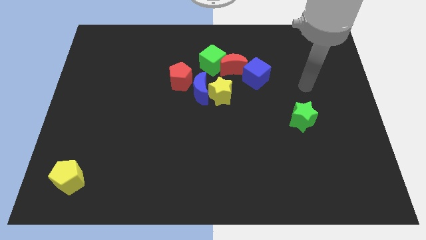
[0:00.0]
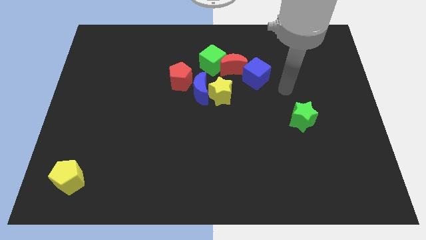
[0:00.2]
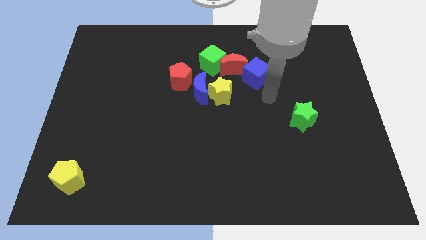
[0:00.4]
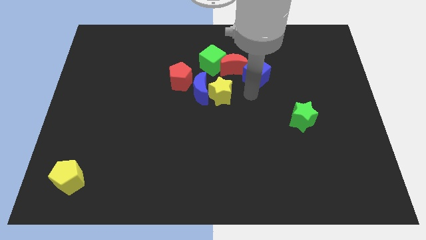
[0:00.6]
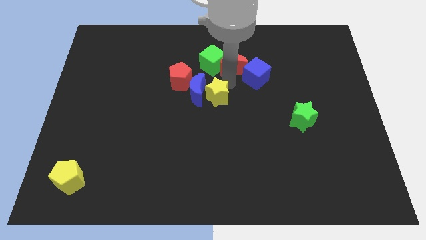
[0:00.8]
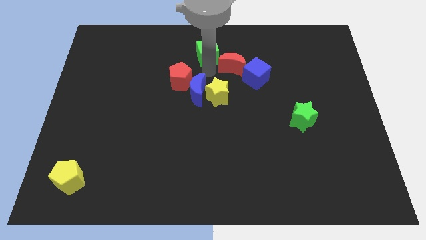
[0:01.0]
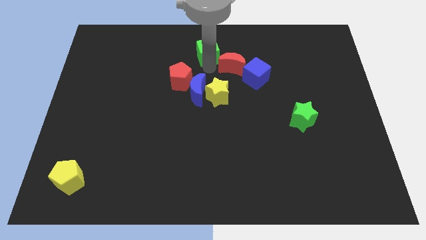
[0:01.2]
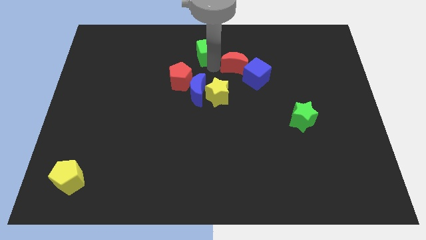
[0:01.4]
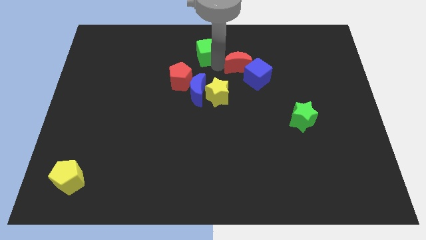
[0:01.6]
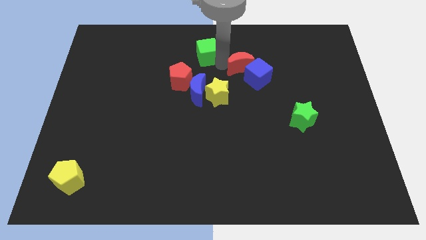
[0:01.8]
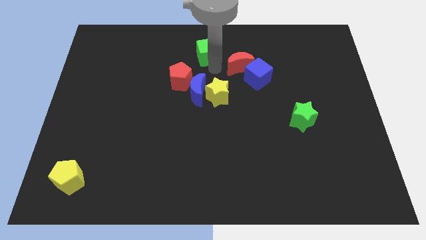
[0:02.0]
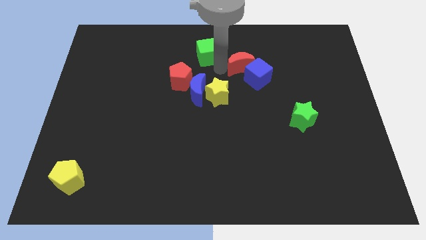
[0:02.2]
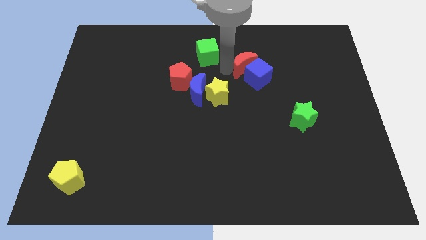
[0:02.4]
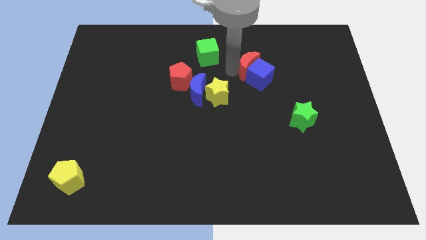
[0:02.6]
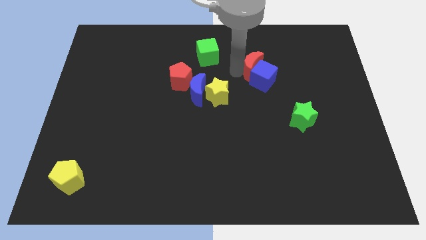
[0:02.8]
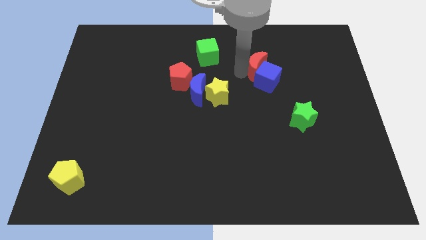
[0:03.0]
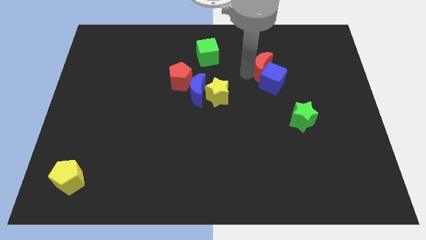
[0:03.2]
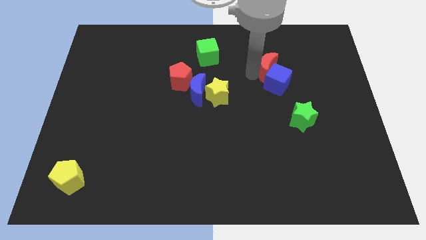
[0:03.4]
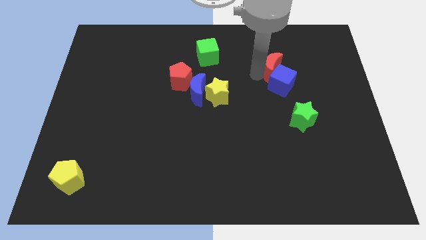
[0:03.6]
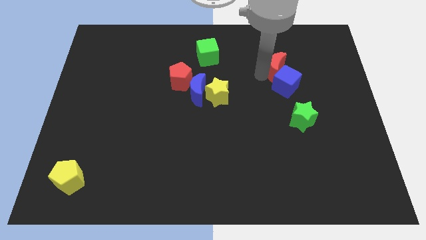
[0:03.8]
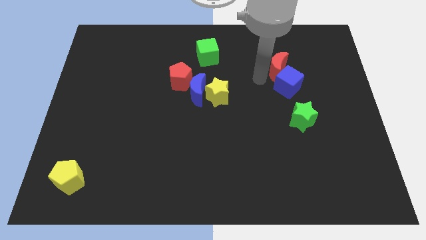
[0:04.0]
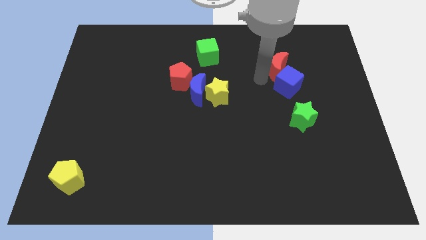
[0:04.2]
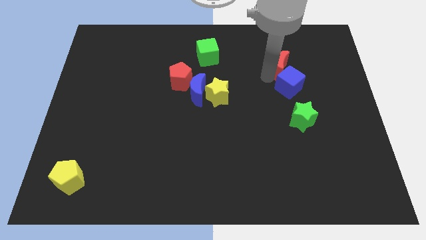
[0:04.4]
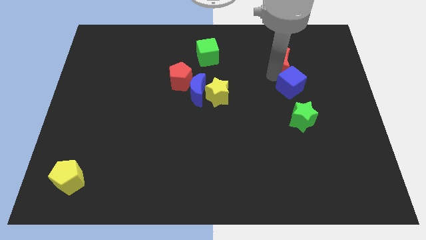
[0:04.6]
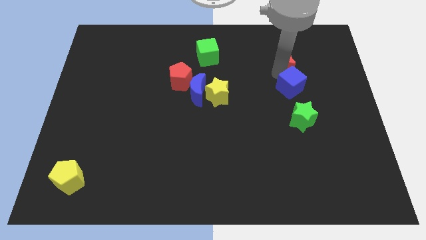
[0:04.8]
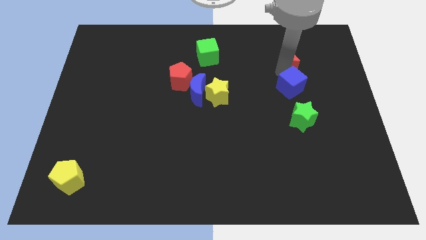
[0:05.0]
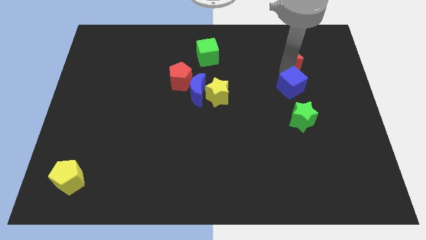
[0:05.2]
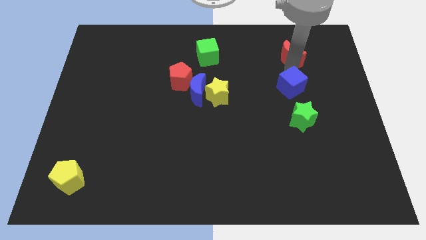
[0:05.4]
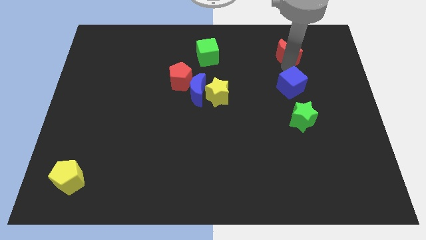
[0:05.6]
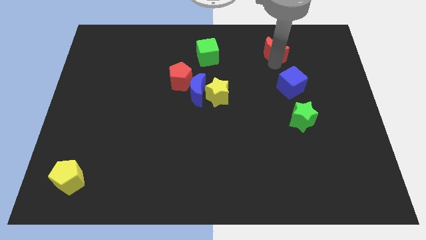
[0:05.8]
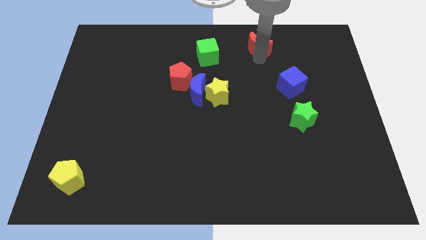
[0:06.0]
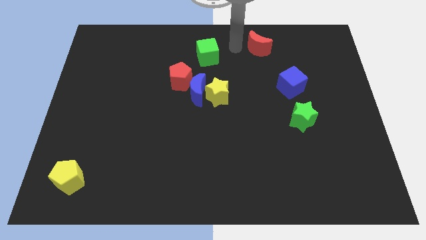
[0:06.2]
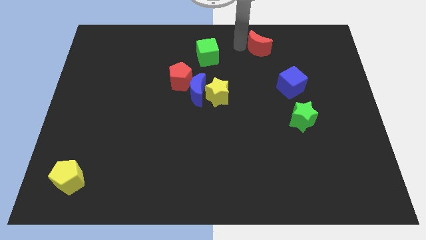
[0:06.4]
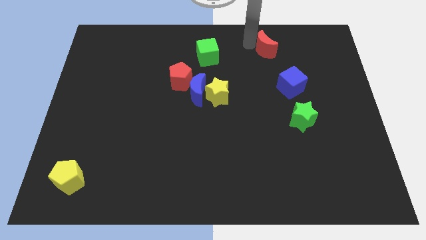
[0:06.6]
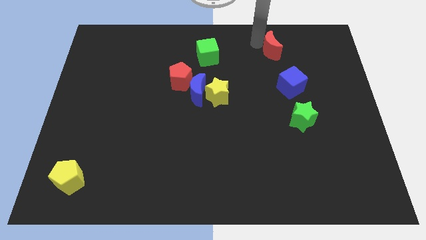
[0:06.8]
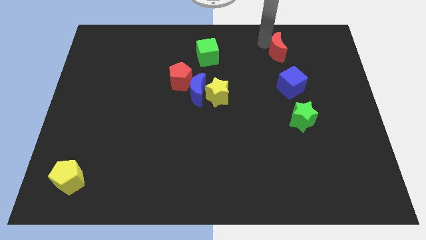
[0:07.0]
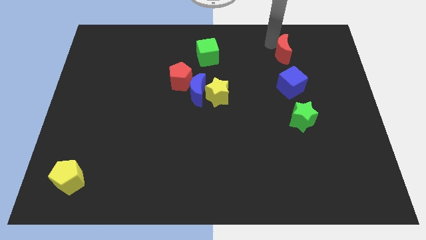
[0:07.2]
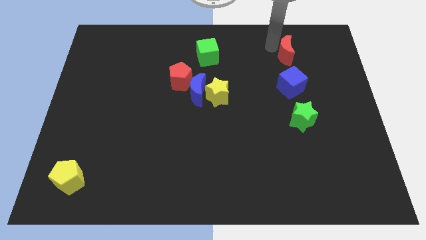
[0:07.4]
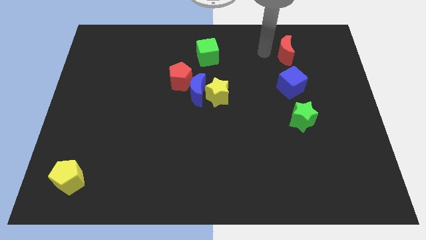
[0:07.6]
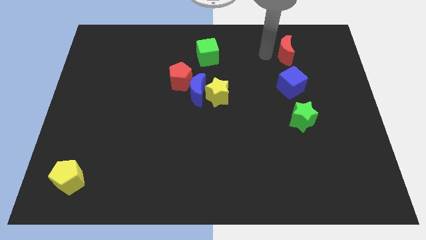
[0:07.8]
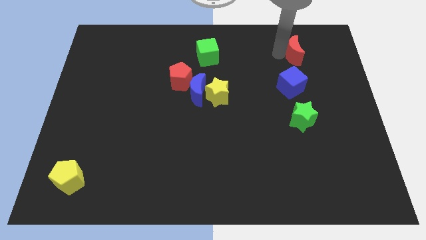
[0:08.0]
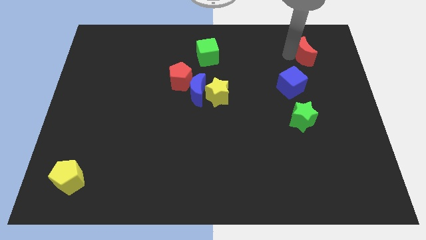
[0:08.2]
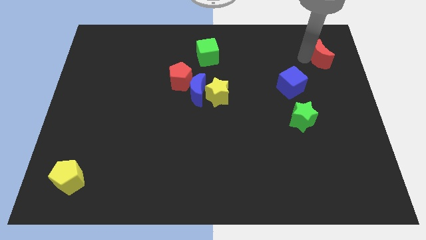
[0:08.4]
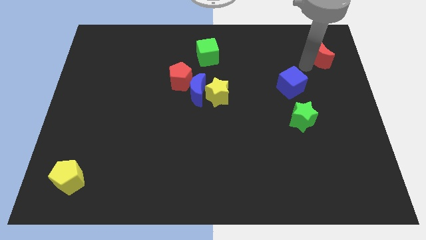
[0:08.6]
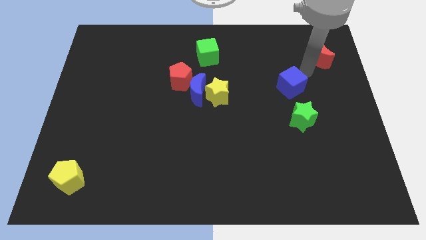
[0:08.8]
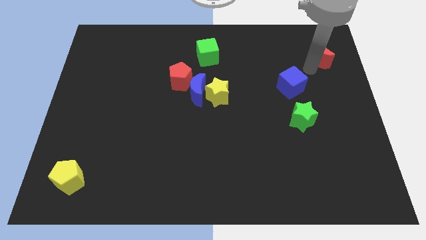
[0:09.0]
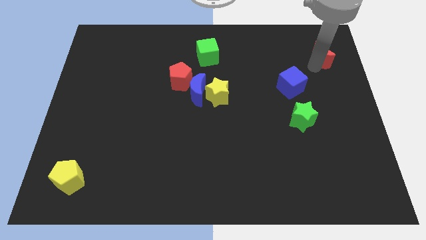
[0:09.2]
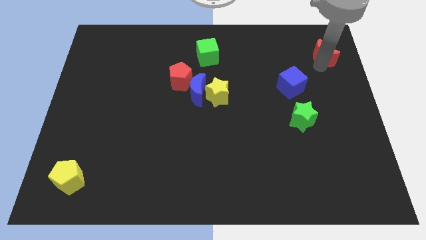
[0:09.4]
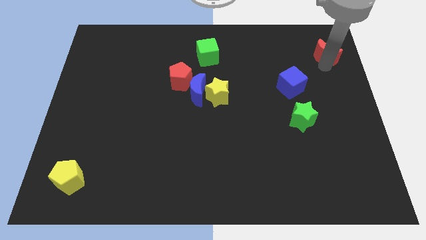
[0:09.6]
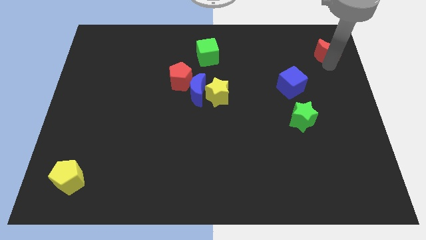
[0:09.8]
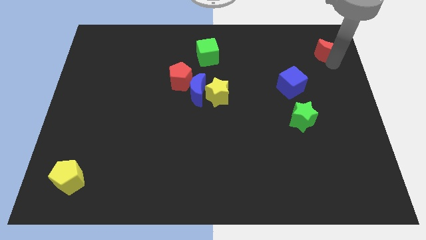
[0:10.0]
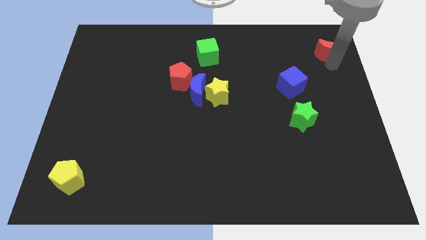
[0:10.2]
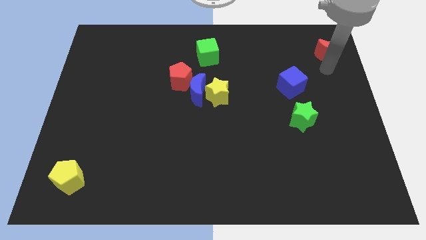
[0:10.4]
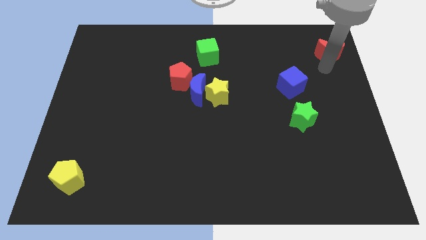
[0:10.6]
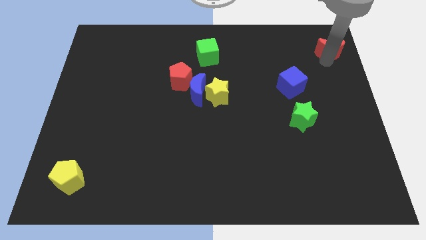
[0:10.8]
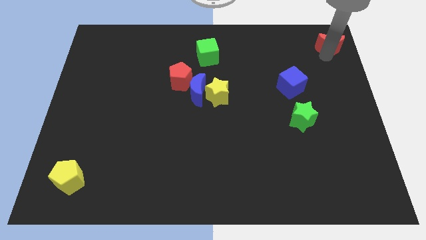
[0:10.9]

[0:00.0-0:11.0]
push the red moon to the top right corner
